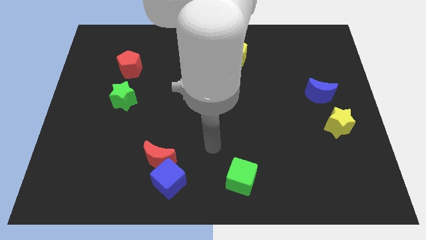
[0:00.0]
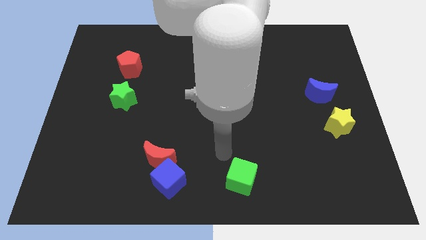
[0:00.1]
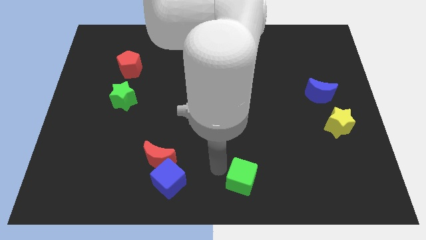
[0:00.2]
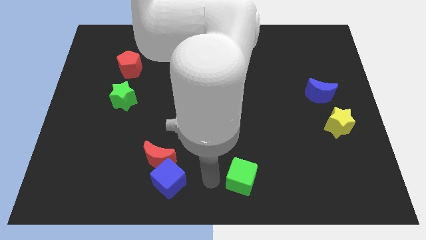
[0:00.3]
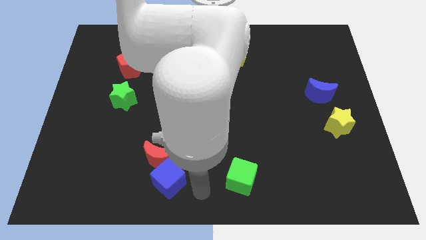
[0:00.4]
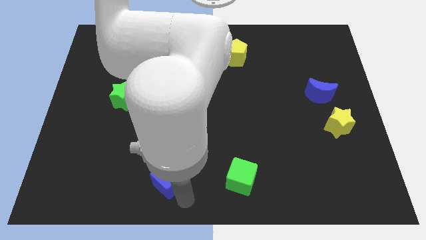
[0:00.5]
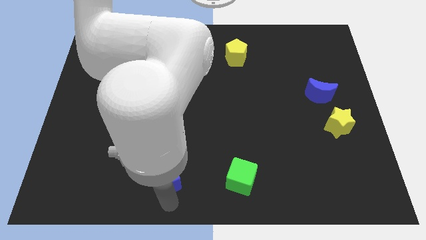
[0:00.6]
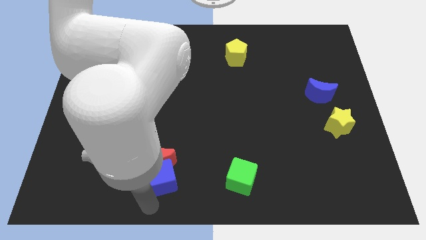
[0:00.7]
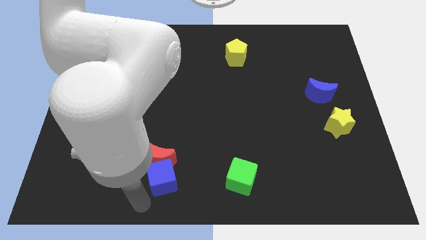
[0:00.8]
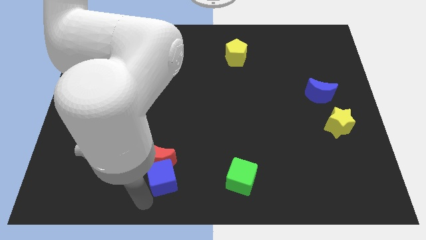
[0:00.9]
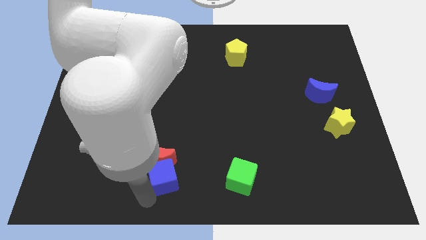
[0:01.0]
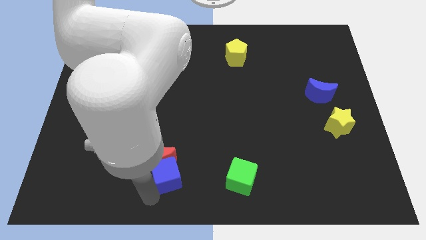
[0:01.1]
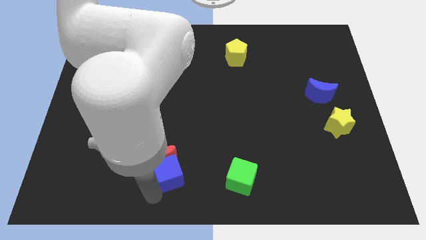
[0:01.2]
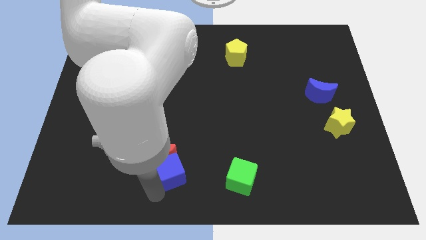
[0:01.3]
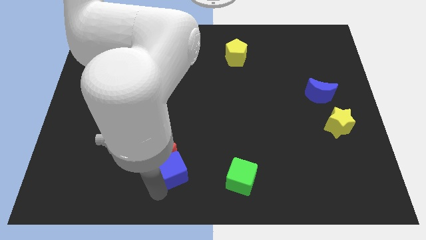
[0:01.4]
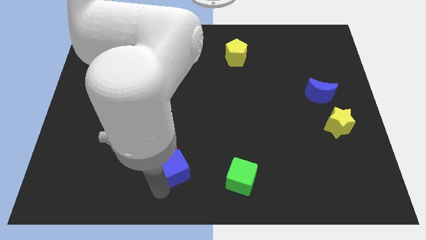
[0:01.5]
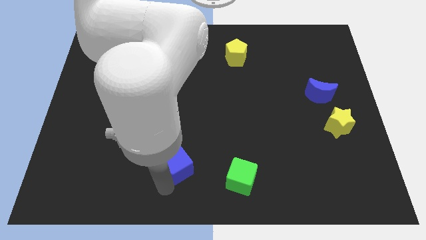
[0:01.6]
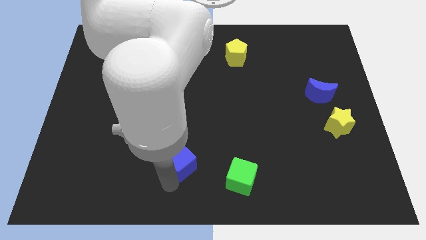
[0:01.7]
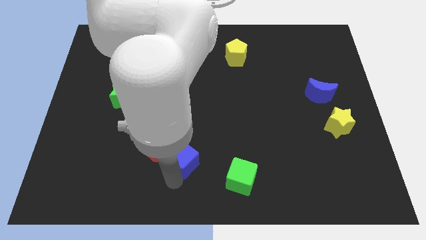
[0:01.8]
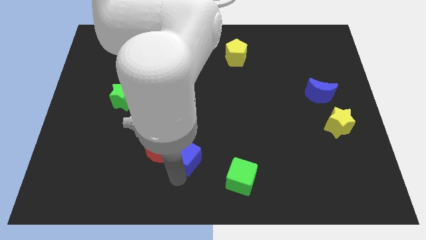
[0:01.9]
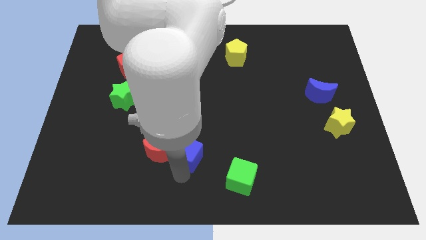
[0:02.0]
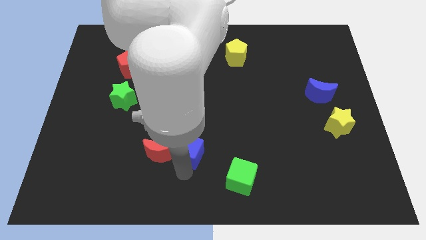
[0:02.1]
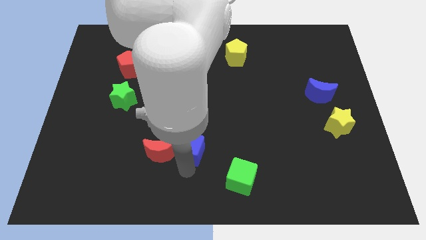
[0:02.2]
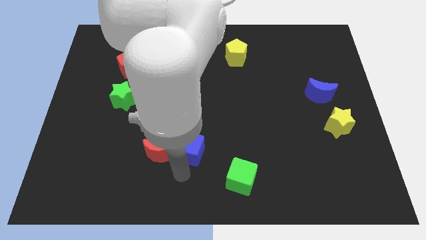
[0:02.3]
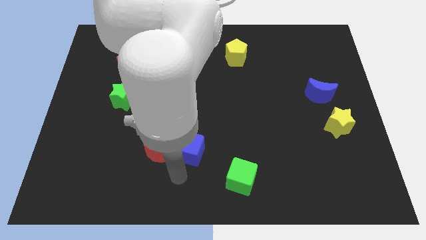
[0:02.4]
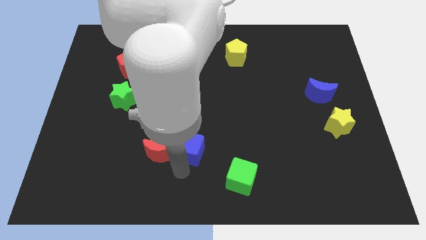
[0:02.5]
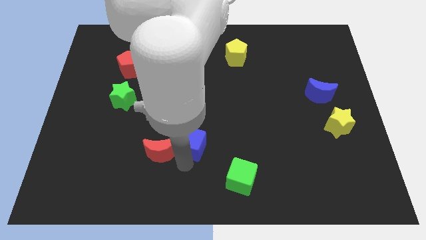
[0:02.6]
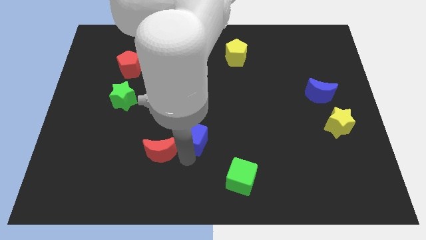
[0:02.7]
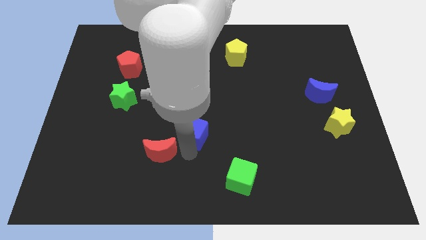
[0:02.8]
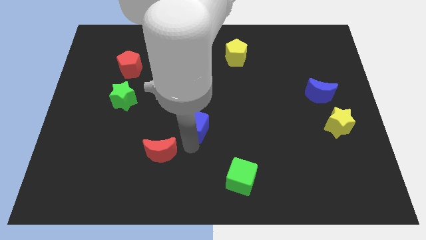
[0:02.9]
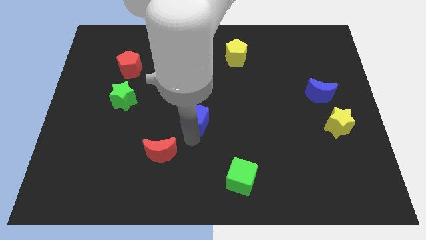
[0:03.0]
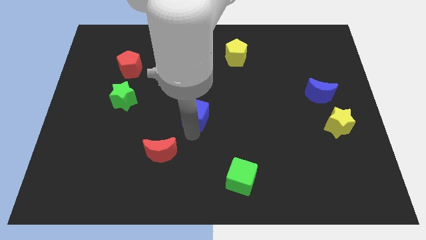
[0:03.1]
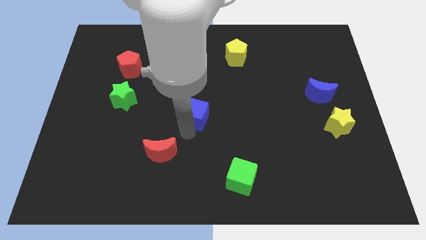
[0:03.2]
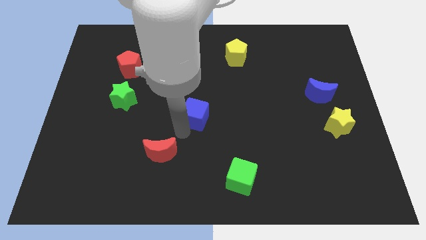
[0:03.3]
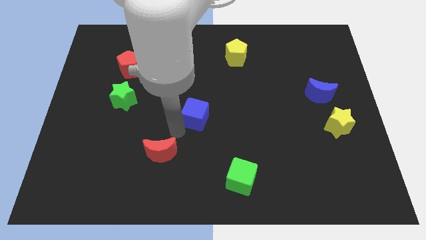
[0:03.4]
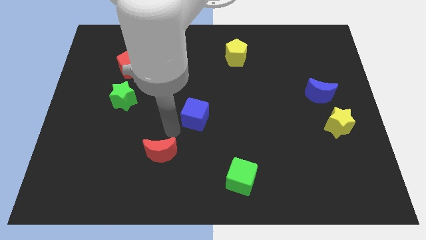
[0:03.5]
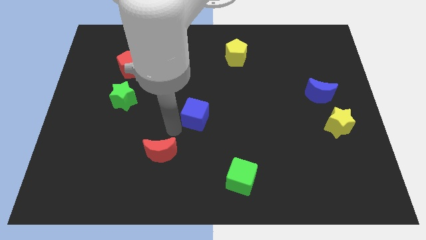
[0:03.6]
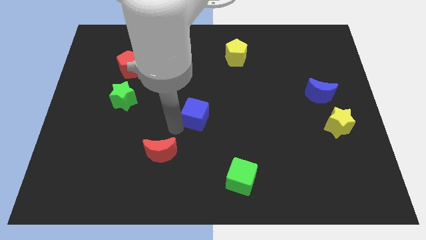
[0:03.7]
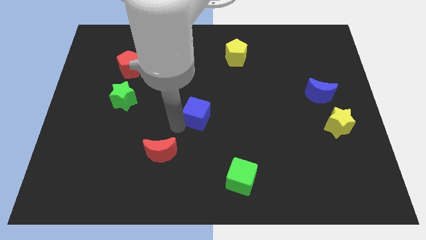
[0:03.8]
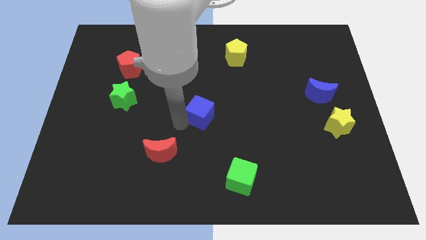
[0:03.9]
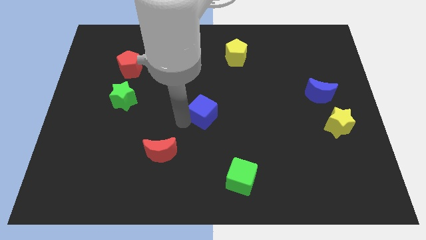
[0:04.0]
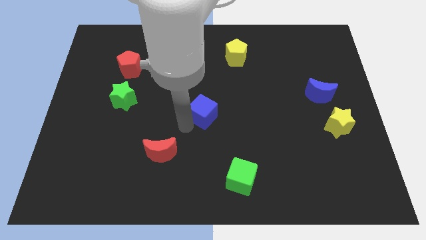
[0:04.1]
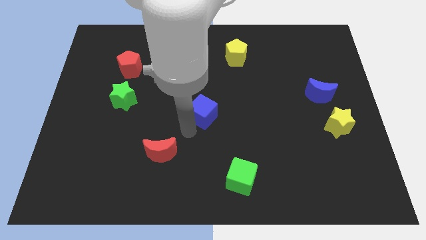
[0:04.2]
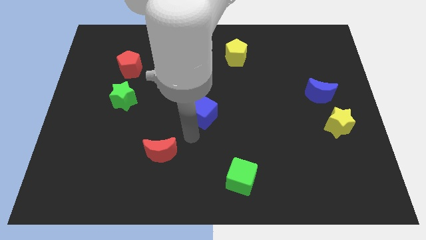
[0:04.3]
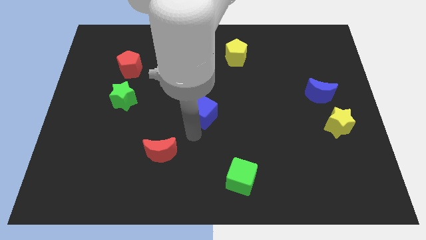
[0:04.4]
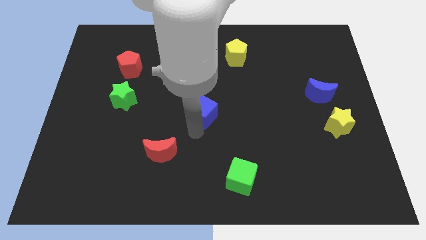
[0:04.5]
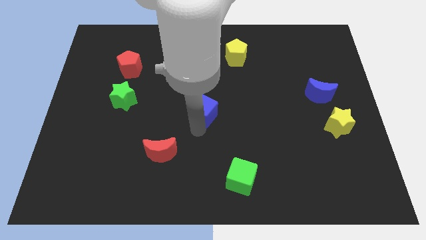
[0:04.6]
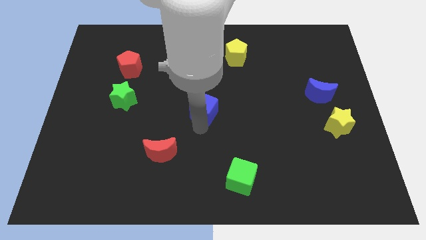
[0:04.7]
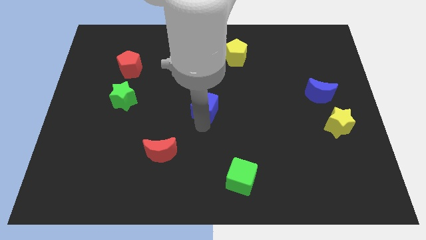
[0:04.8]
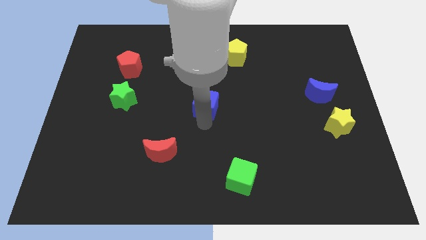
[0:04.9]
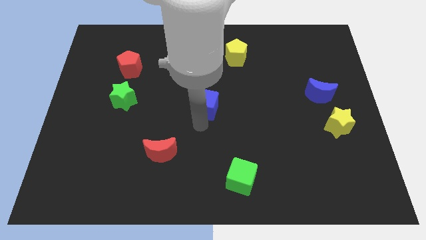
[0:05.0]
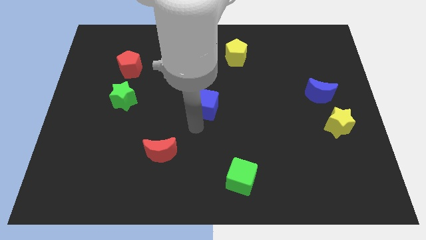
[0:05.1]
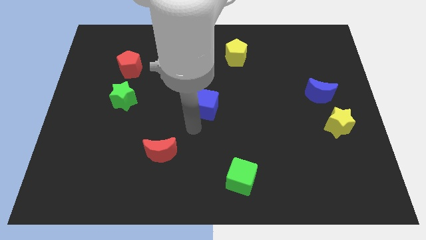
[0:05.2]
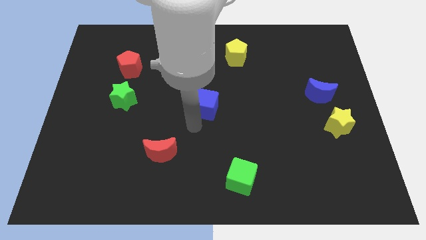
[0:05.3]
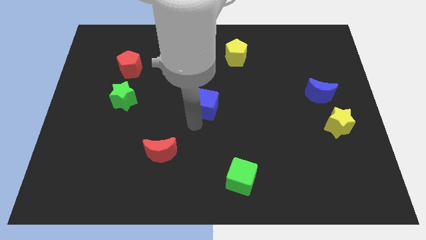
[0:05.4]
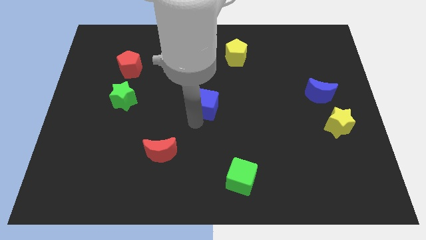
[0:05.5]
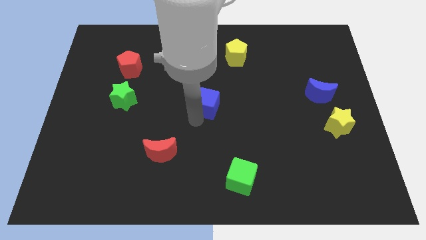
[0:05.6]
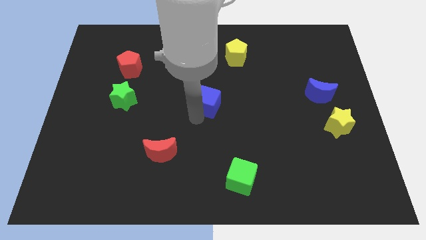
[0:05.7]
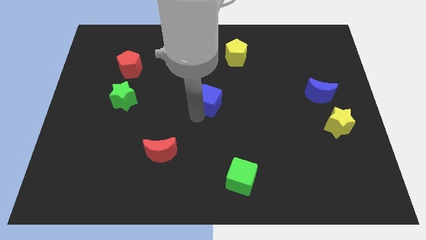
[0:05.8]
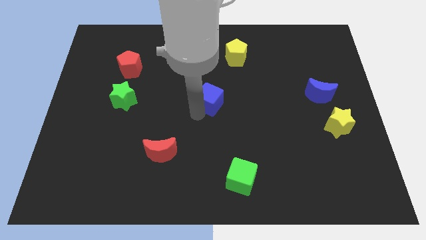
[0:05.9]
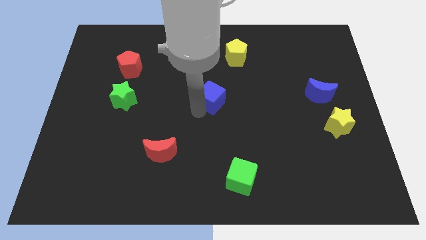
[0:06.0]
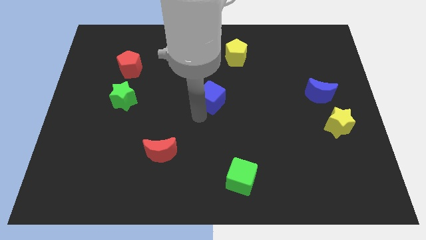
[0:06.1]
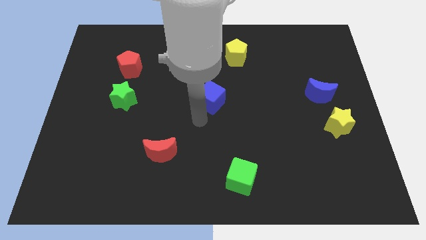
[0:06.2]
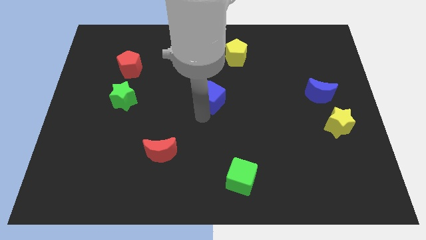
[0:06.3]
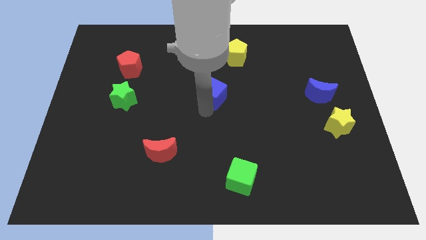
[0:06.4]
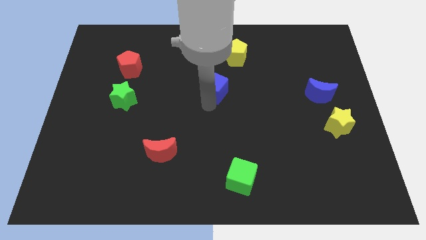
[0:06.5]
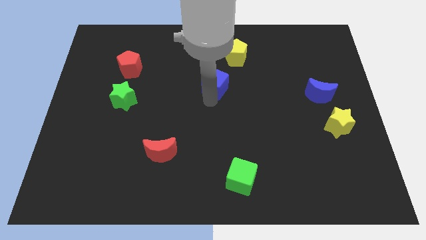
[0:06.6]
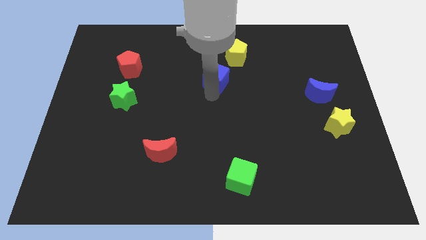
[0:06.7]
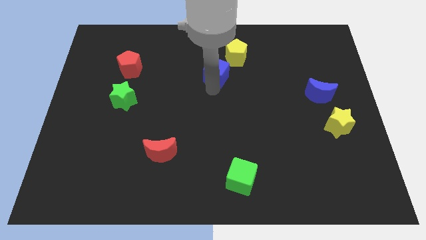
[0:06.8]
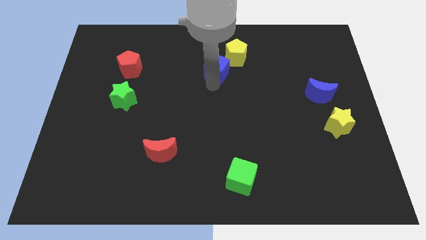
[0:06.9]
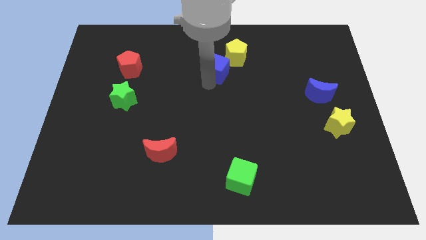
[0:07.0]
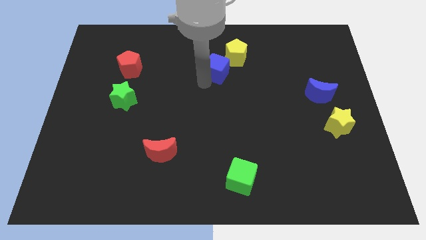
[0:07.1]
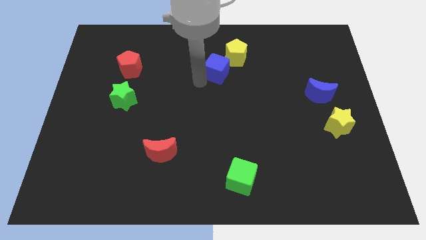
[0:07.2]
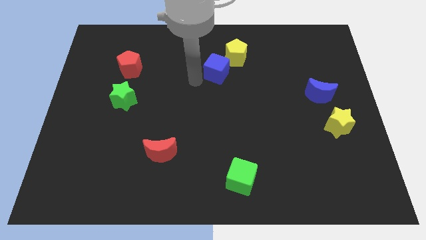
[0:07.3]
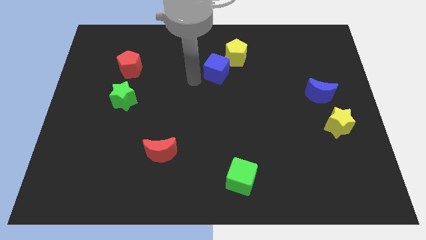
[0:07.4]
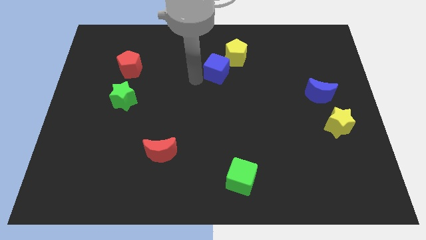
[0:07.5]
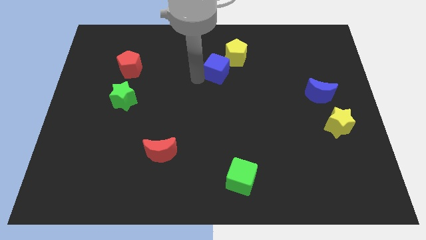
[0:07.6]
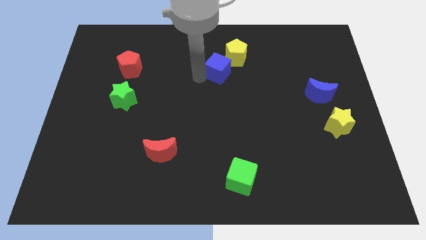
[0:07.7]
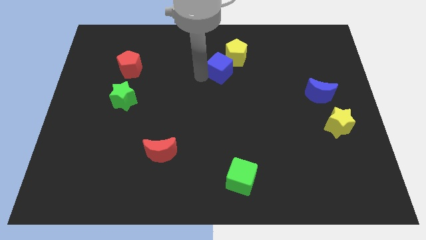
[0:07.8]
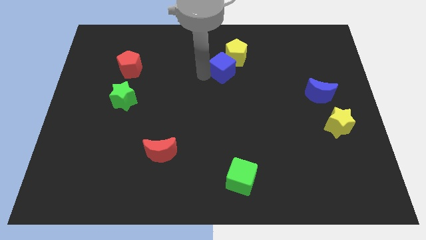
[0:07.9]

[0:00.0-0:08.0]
slide the blue cube next to the yellow pentagon
